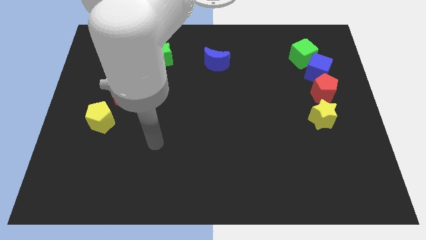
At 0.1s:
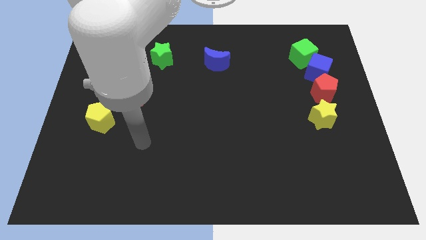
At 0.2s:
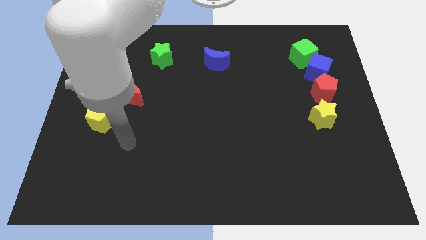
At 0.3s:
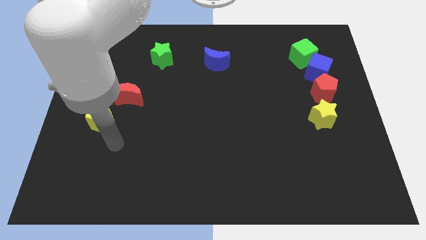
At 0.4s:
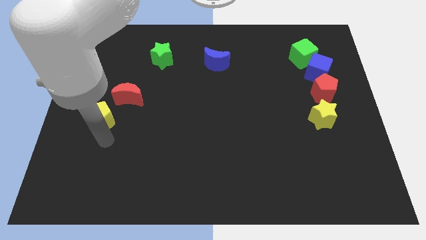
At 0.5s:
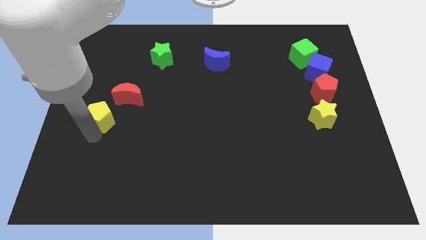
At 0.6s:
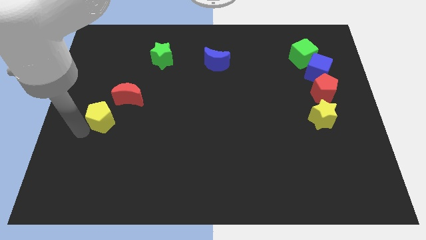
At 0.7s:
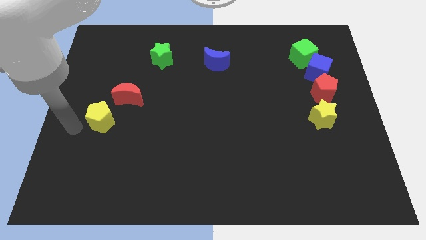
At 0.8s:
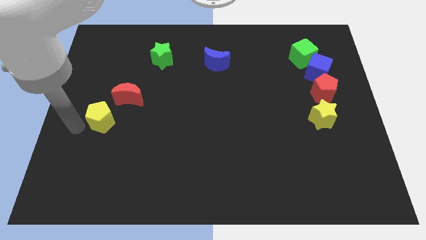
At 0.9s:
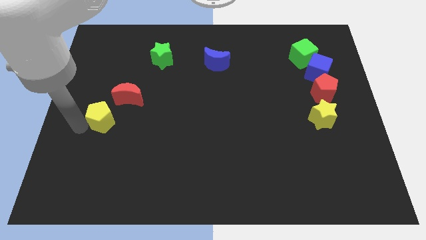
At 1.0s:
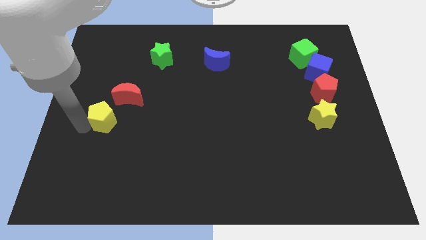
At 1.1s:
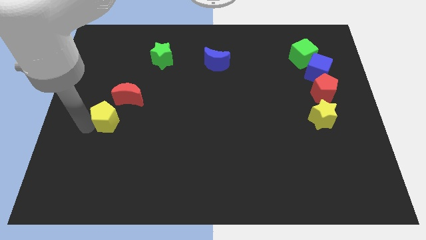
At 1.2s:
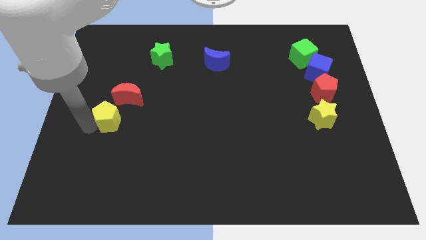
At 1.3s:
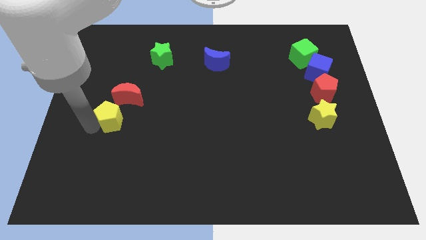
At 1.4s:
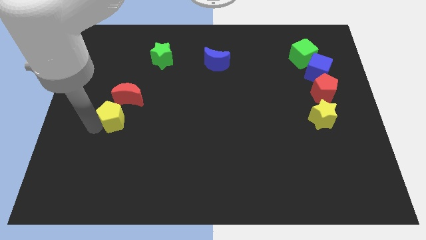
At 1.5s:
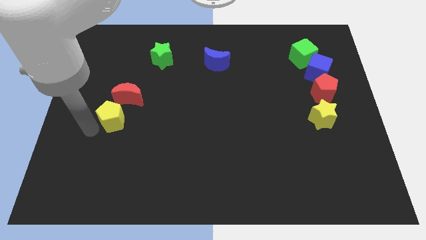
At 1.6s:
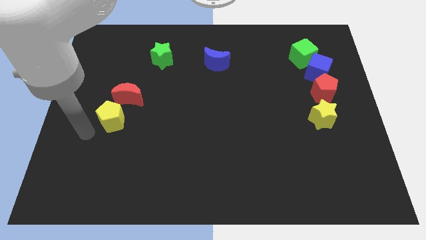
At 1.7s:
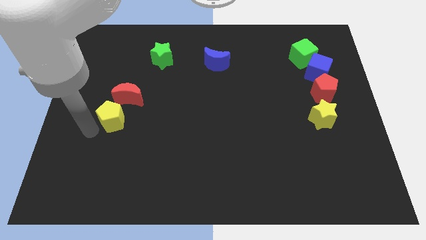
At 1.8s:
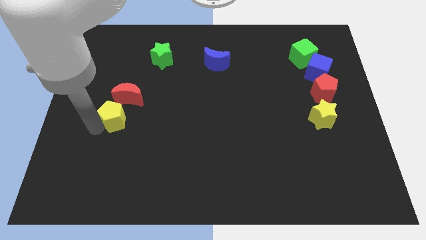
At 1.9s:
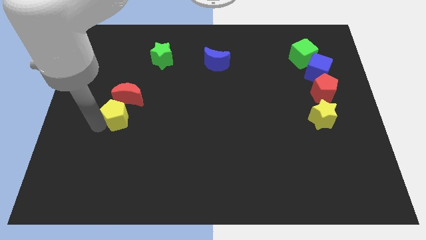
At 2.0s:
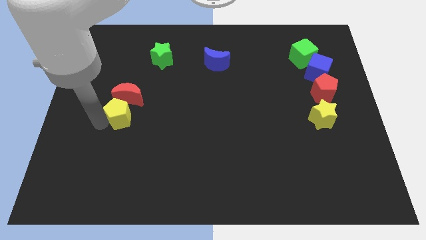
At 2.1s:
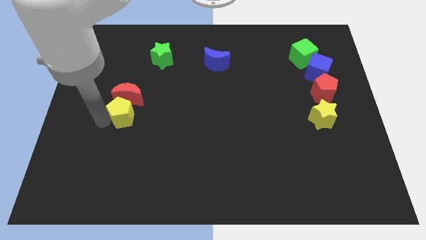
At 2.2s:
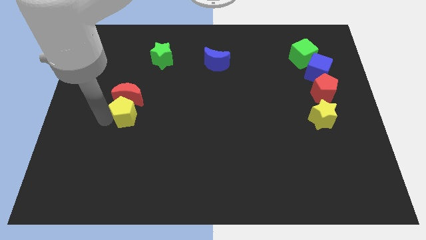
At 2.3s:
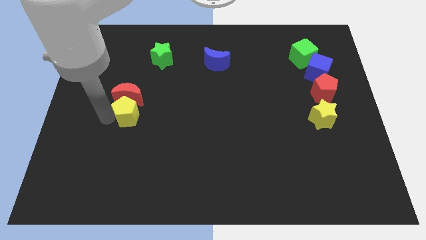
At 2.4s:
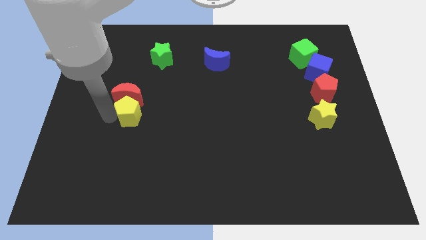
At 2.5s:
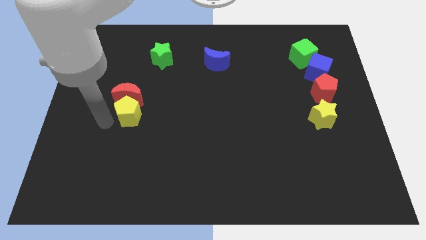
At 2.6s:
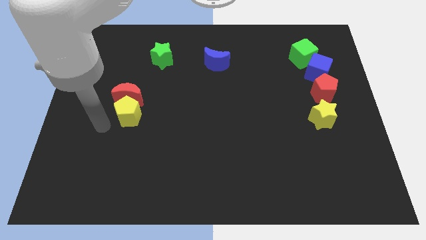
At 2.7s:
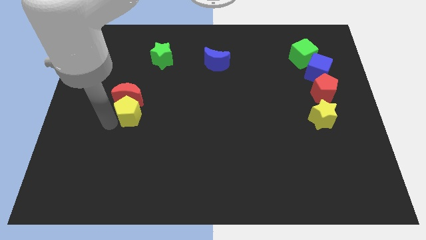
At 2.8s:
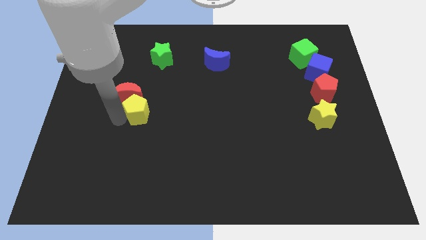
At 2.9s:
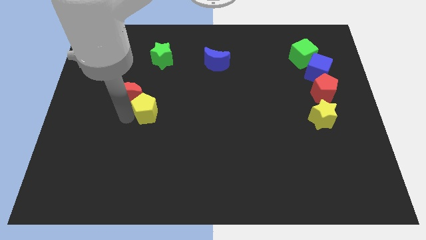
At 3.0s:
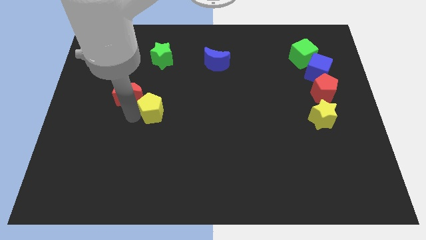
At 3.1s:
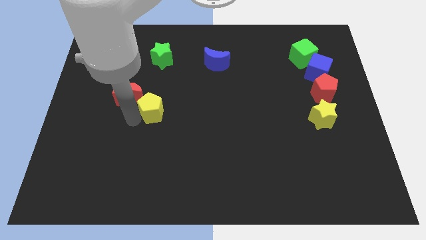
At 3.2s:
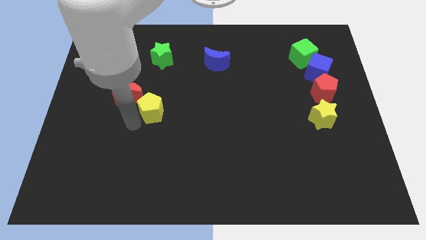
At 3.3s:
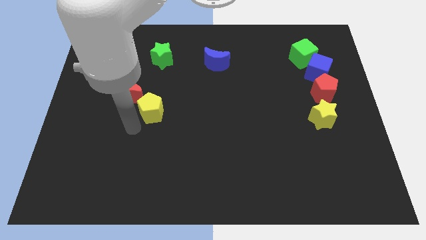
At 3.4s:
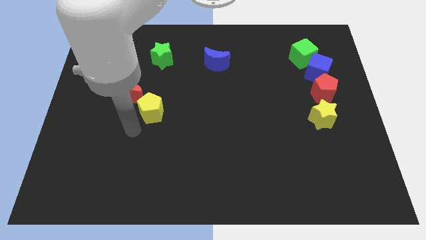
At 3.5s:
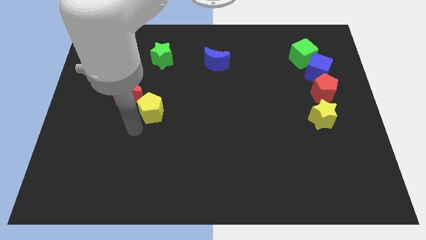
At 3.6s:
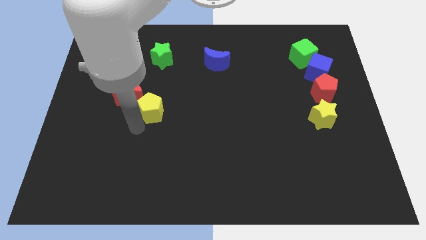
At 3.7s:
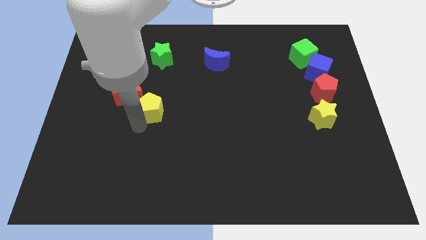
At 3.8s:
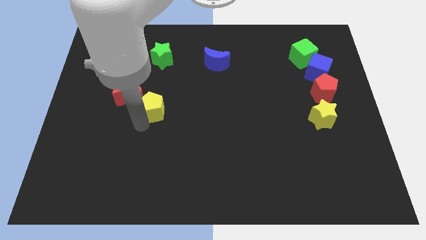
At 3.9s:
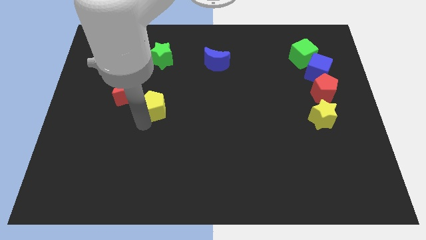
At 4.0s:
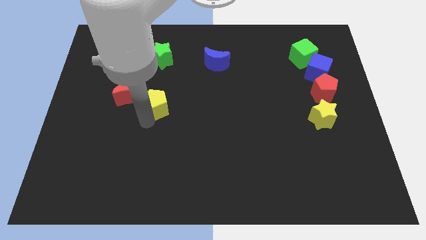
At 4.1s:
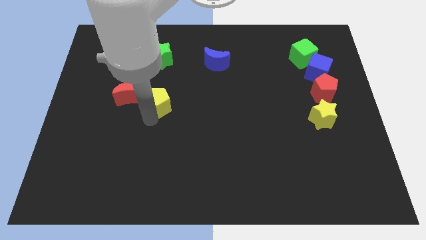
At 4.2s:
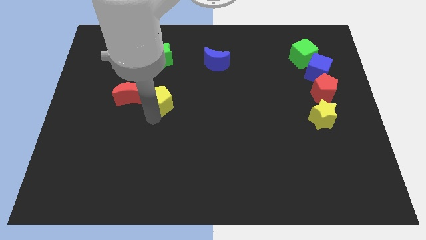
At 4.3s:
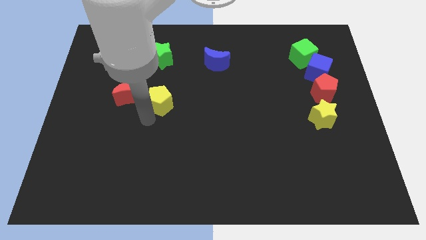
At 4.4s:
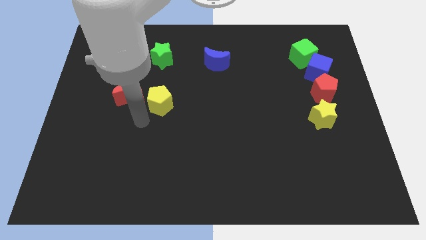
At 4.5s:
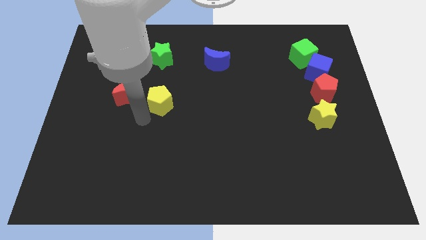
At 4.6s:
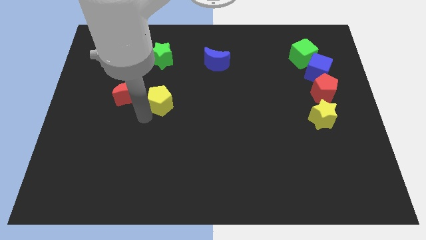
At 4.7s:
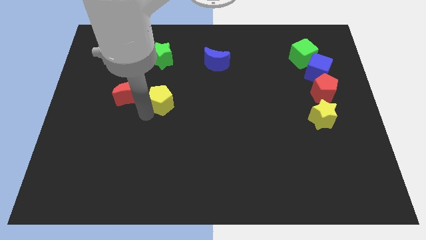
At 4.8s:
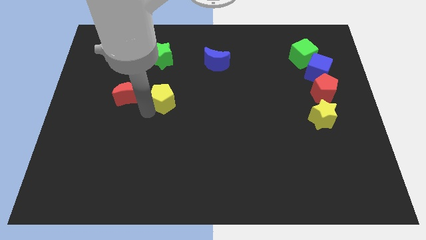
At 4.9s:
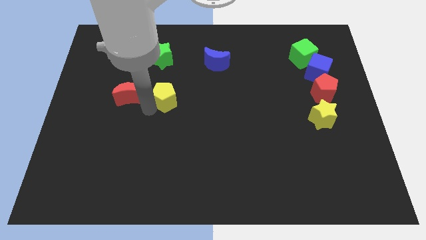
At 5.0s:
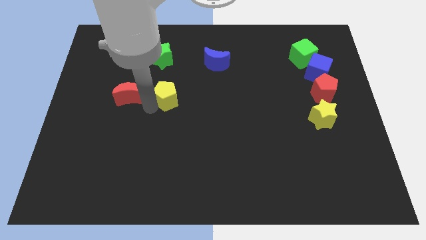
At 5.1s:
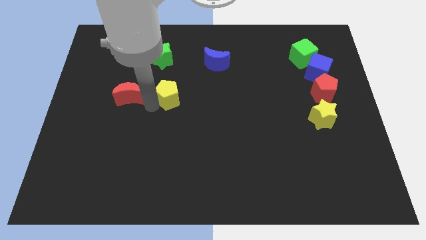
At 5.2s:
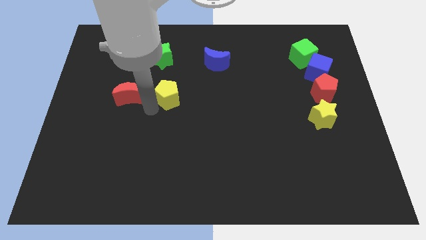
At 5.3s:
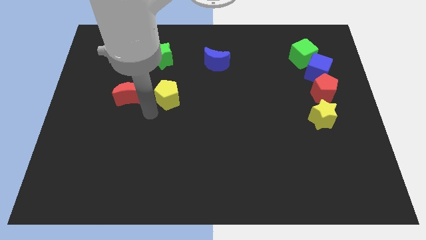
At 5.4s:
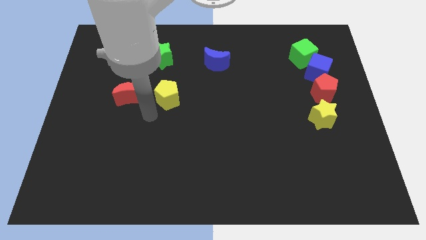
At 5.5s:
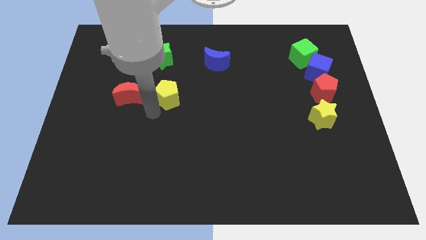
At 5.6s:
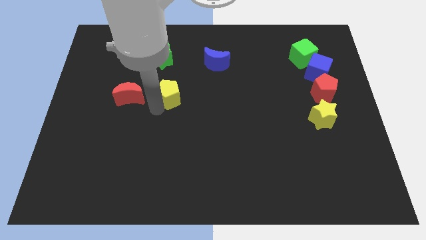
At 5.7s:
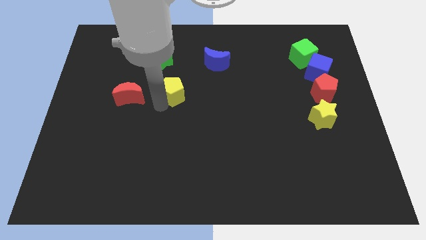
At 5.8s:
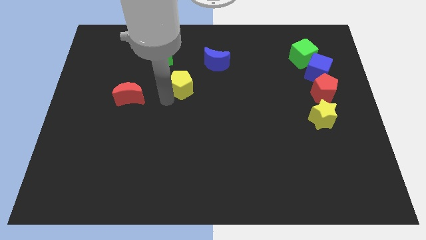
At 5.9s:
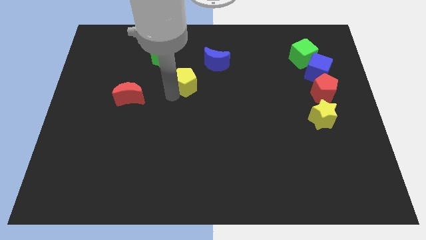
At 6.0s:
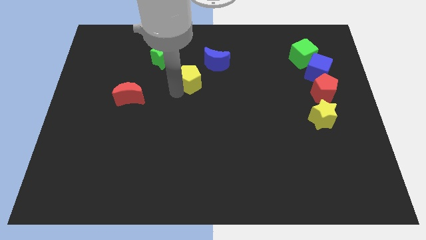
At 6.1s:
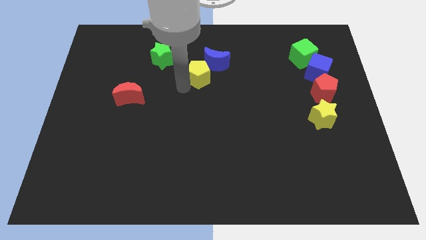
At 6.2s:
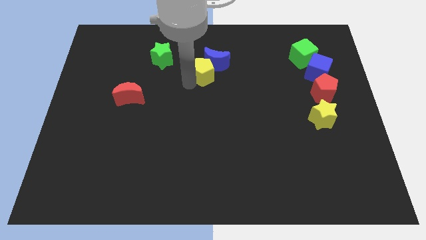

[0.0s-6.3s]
put the yellow pentagon to the blue moon

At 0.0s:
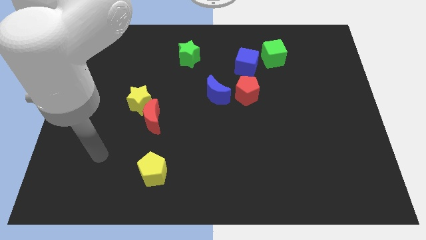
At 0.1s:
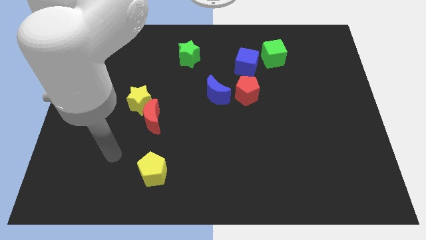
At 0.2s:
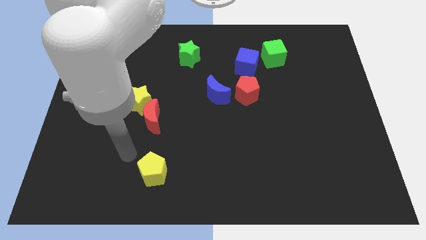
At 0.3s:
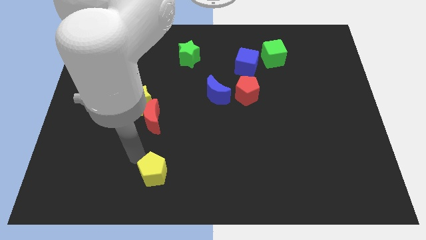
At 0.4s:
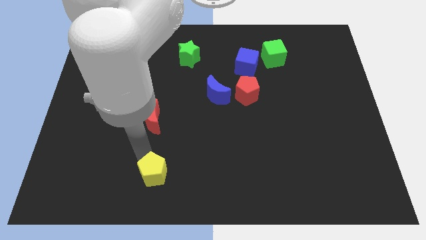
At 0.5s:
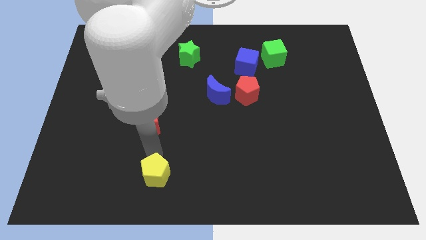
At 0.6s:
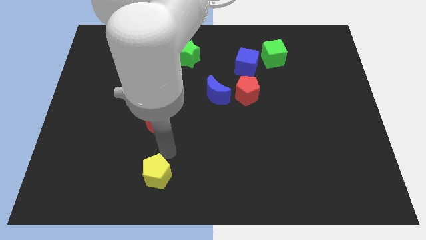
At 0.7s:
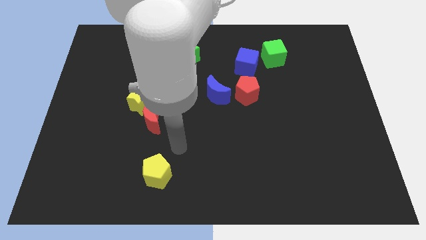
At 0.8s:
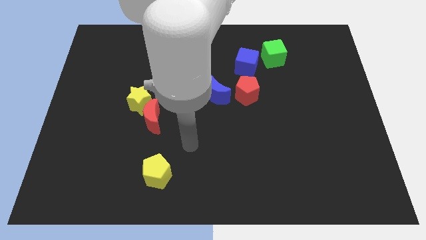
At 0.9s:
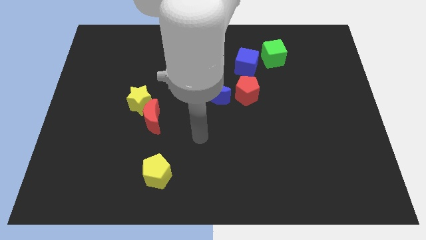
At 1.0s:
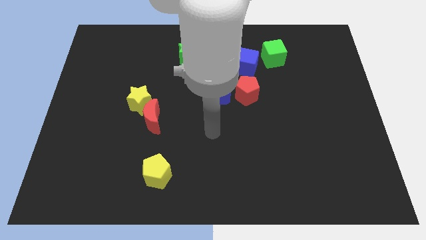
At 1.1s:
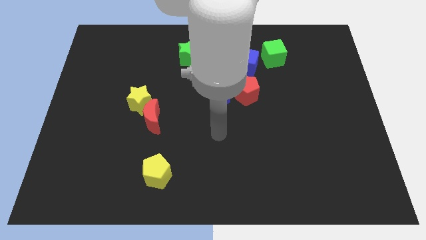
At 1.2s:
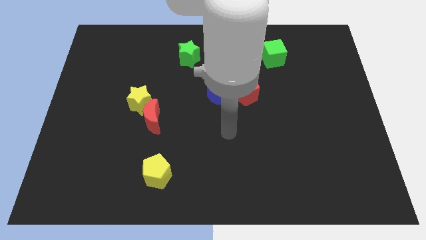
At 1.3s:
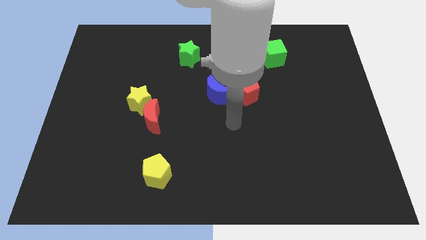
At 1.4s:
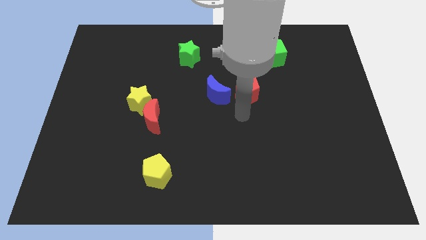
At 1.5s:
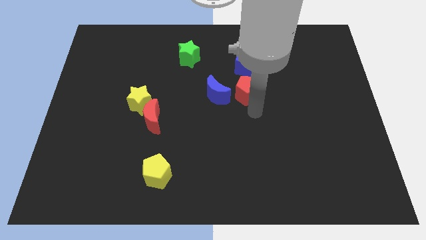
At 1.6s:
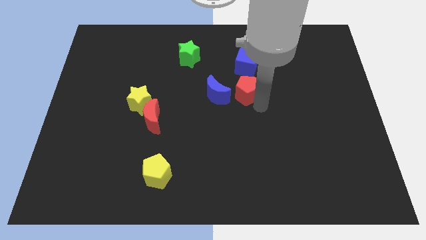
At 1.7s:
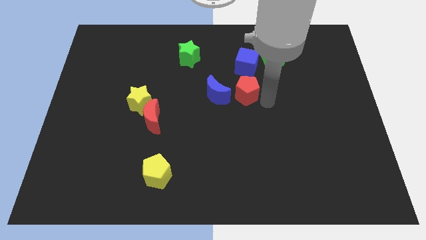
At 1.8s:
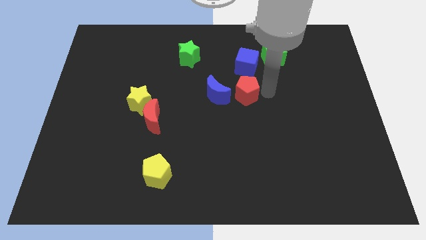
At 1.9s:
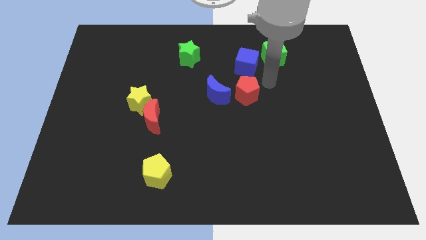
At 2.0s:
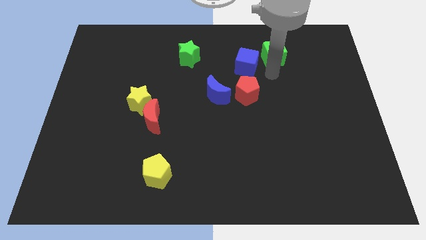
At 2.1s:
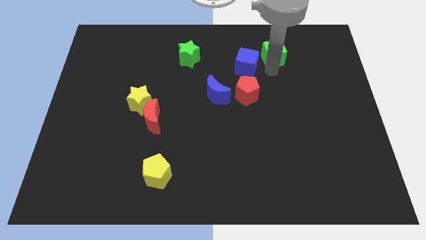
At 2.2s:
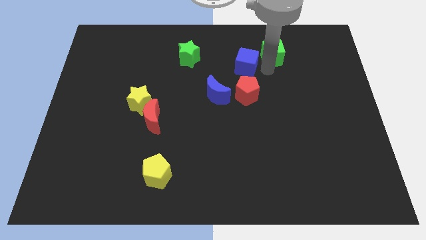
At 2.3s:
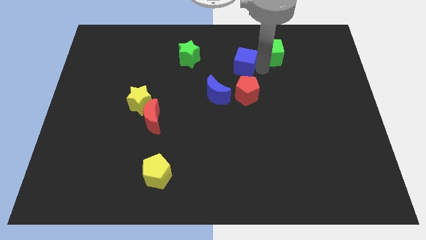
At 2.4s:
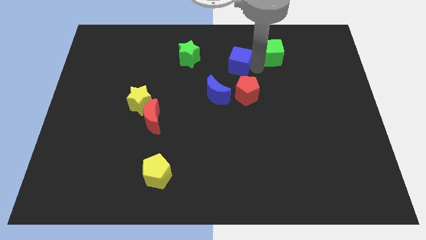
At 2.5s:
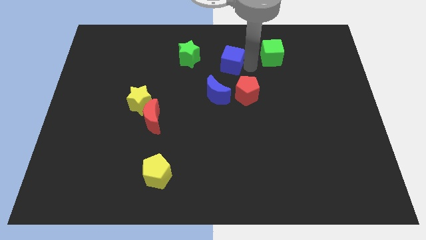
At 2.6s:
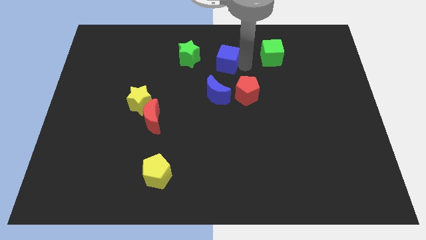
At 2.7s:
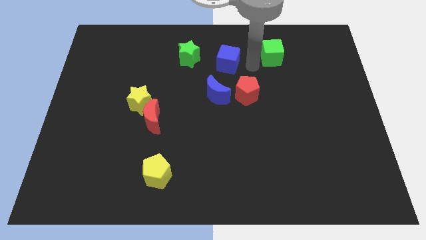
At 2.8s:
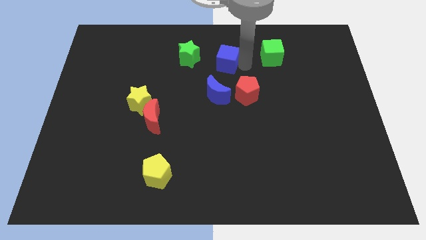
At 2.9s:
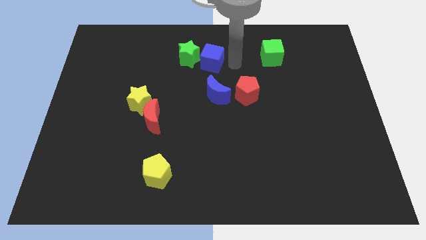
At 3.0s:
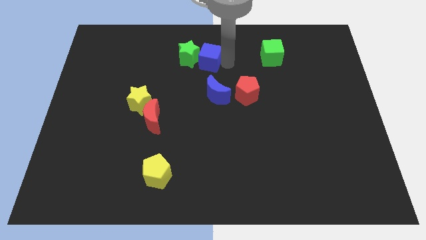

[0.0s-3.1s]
slide the blue cube to the green star
